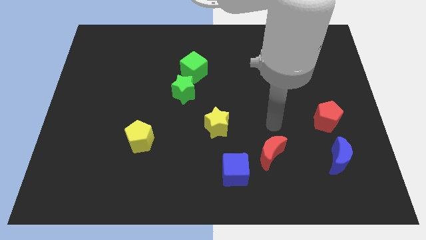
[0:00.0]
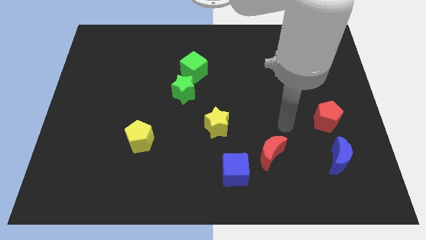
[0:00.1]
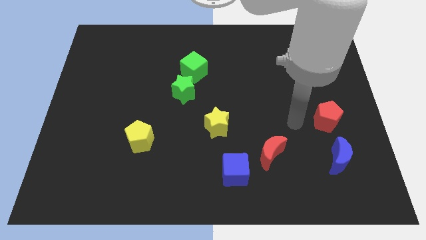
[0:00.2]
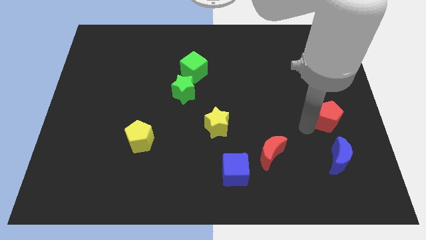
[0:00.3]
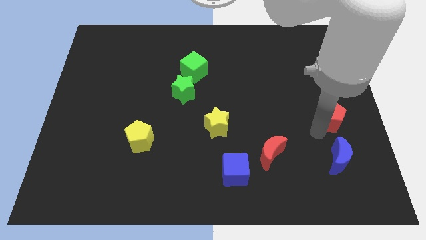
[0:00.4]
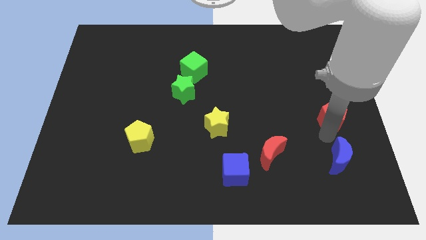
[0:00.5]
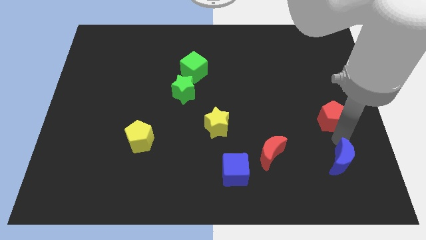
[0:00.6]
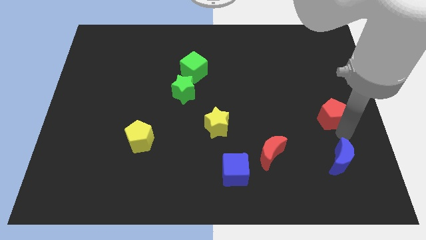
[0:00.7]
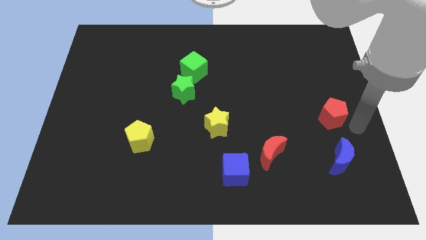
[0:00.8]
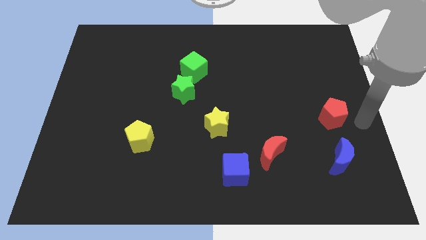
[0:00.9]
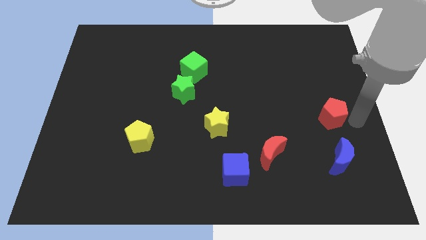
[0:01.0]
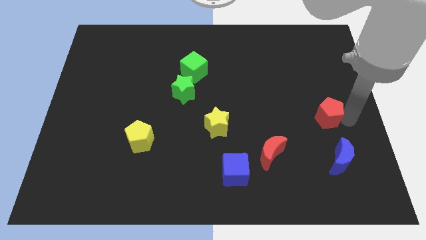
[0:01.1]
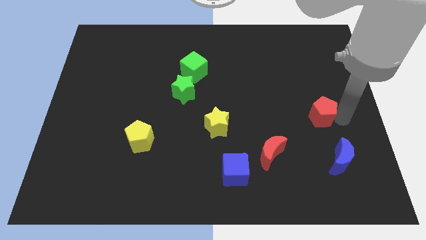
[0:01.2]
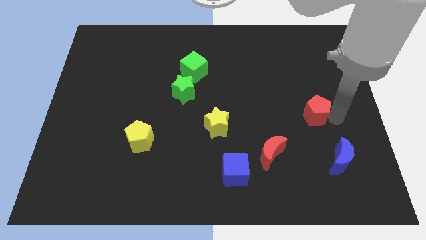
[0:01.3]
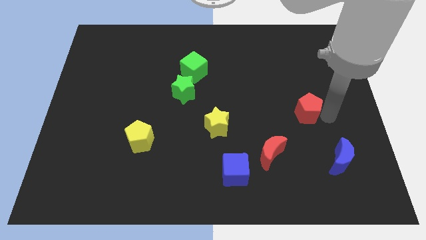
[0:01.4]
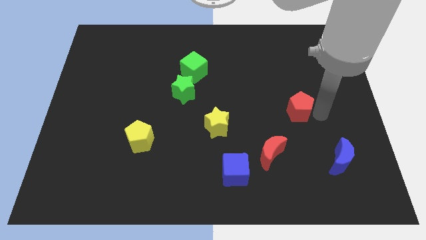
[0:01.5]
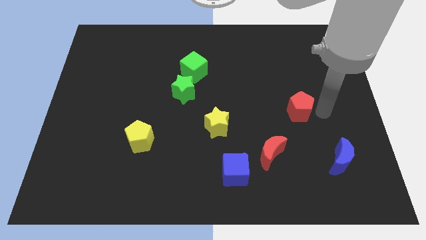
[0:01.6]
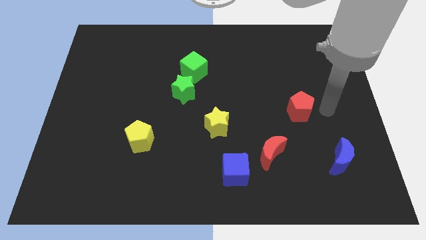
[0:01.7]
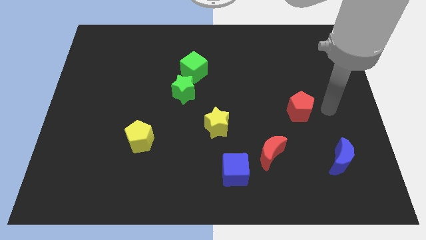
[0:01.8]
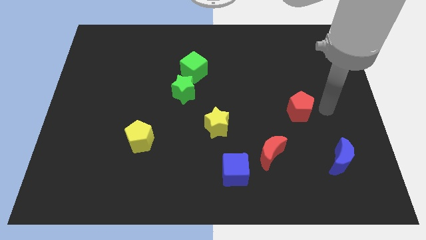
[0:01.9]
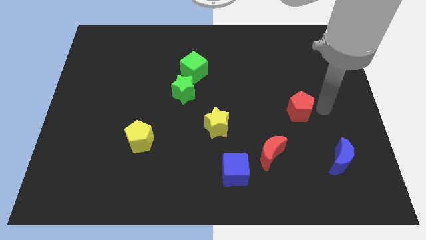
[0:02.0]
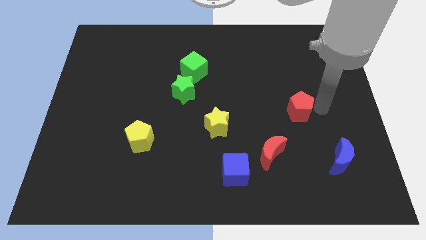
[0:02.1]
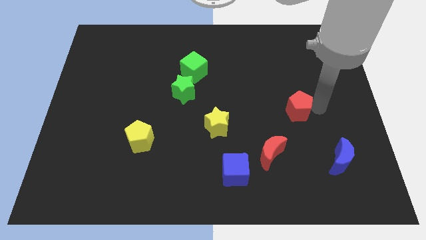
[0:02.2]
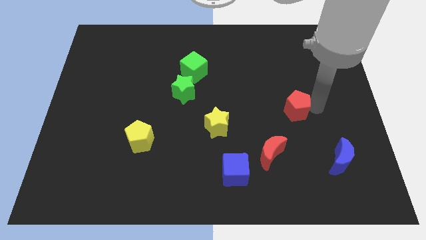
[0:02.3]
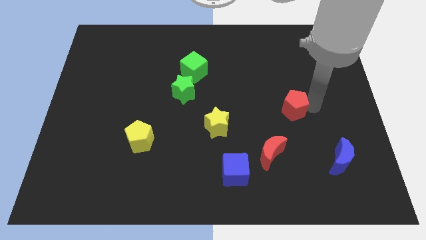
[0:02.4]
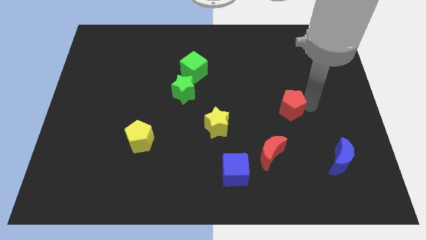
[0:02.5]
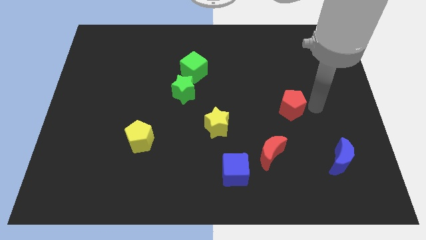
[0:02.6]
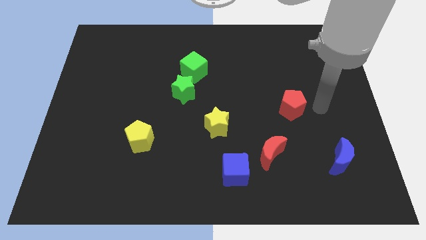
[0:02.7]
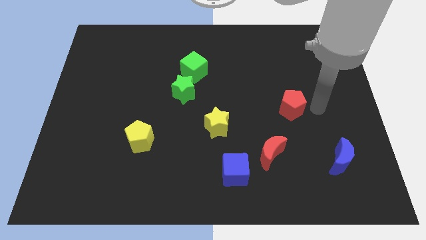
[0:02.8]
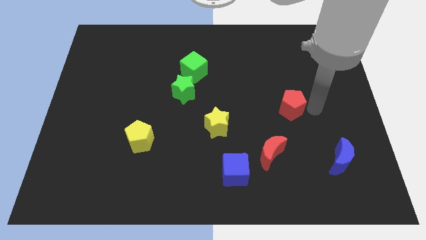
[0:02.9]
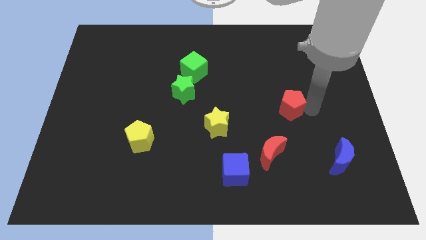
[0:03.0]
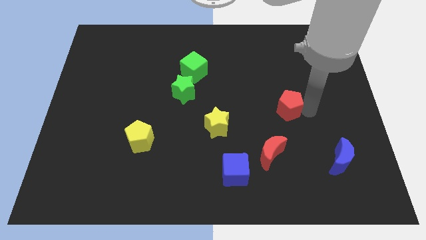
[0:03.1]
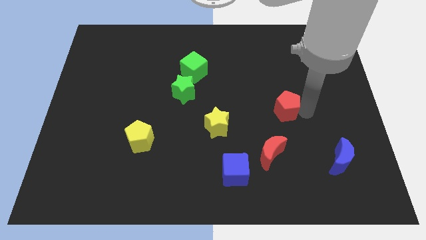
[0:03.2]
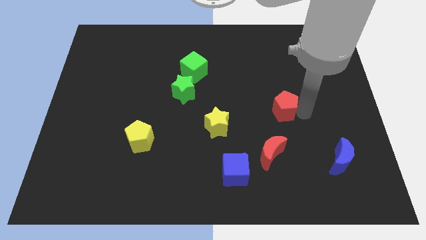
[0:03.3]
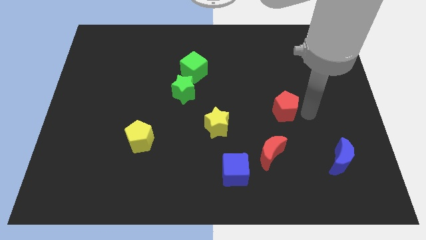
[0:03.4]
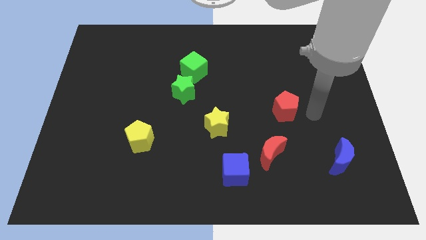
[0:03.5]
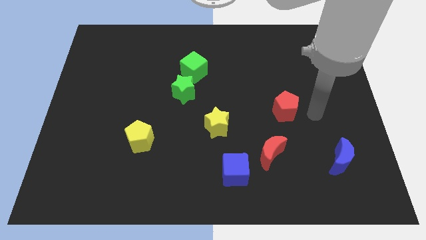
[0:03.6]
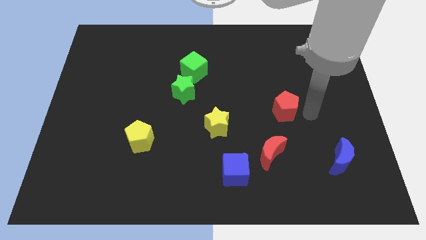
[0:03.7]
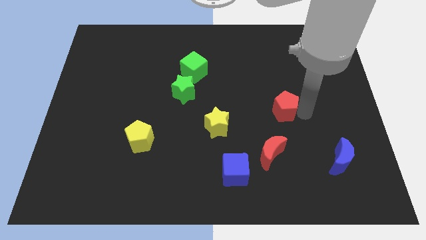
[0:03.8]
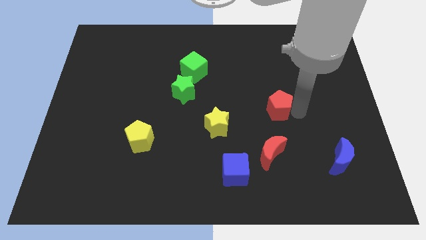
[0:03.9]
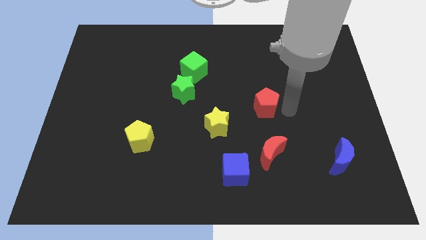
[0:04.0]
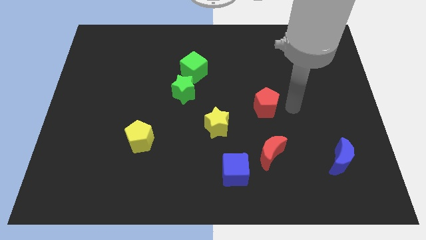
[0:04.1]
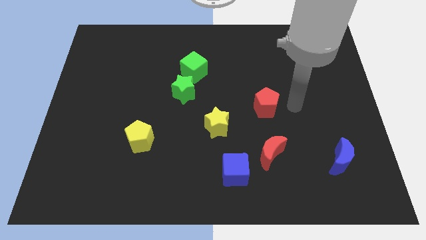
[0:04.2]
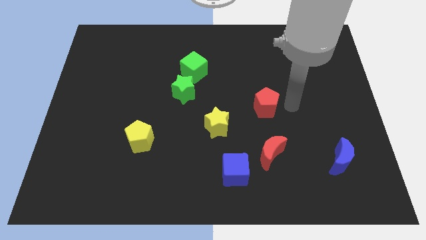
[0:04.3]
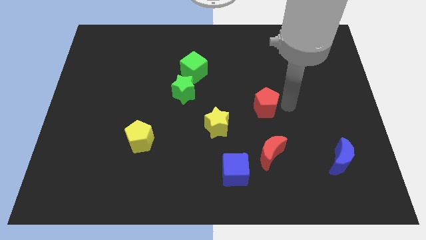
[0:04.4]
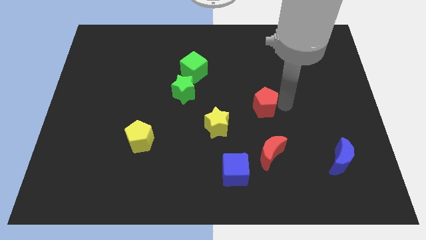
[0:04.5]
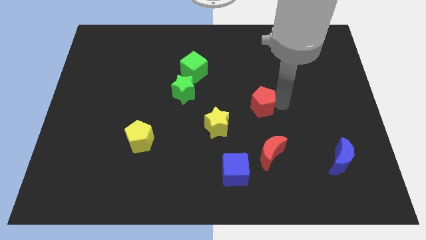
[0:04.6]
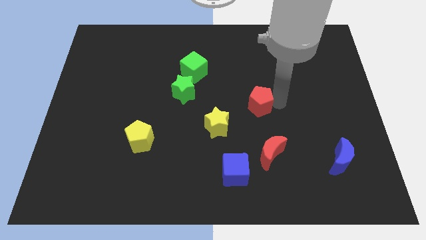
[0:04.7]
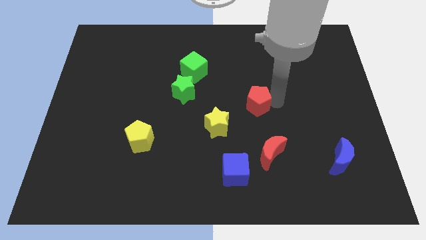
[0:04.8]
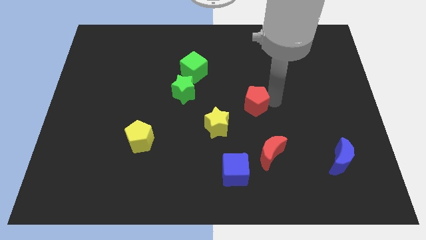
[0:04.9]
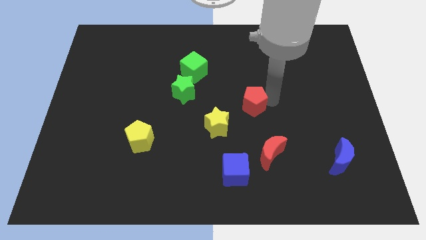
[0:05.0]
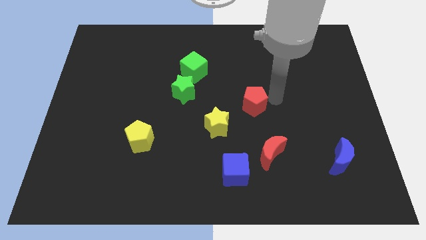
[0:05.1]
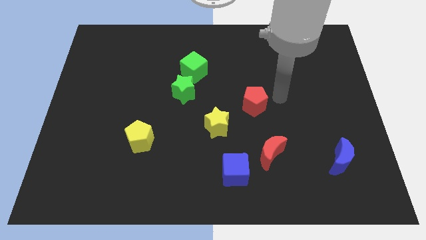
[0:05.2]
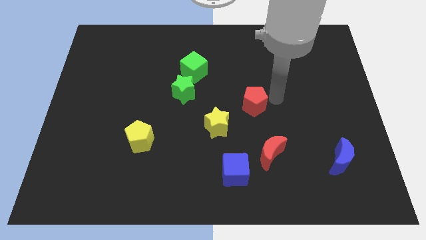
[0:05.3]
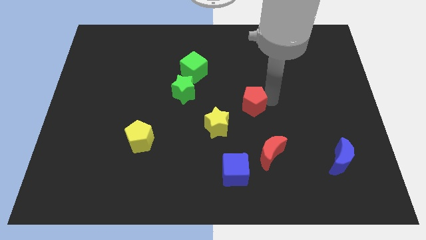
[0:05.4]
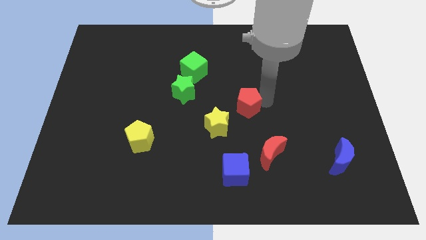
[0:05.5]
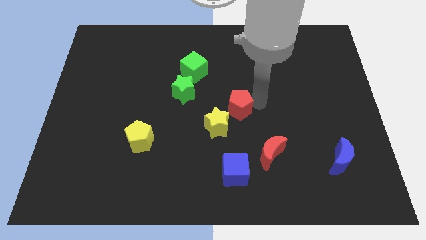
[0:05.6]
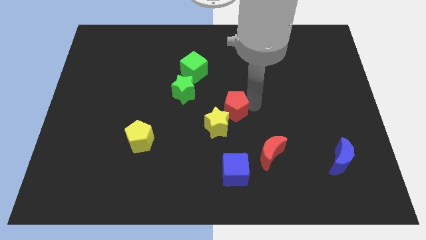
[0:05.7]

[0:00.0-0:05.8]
push the red pentagon to the left

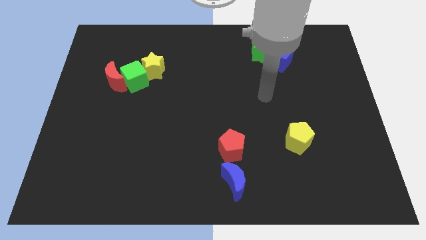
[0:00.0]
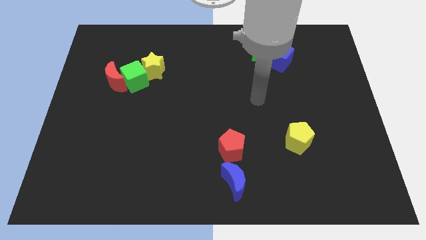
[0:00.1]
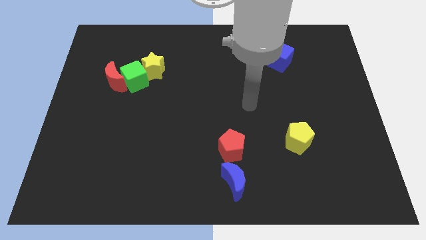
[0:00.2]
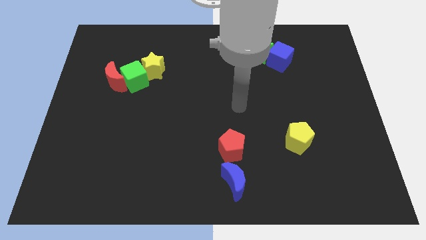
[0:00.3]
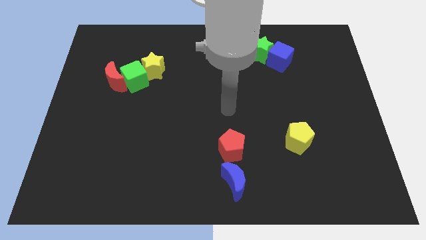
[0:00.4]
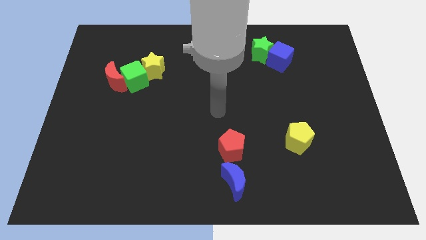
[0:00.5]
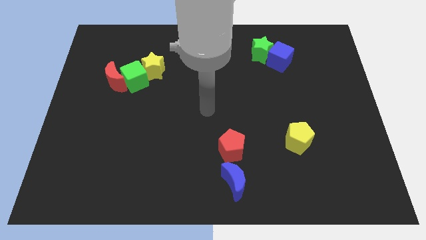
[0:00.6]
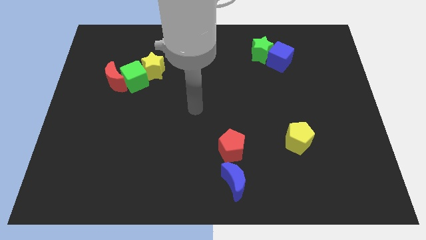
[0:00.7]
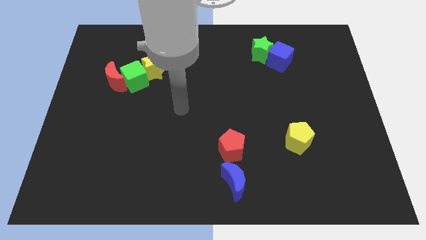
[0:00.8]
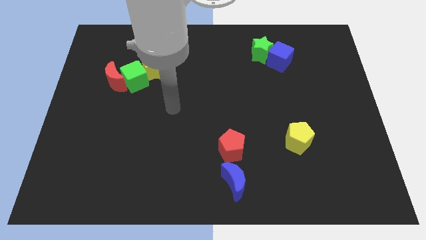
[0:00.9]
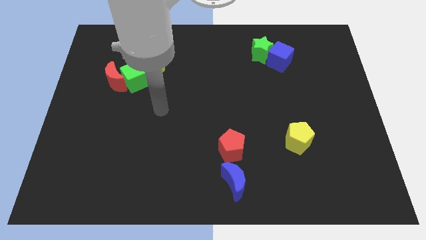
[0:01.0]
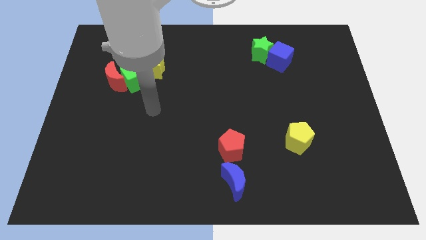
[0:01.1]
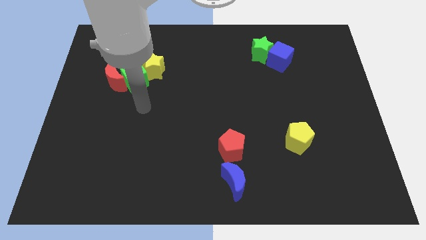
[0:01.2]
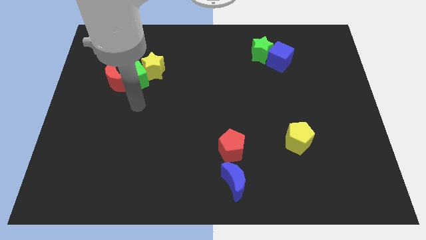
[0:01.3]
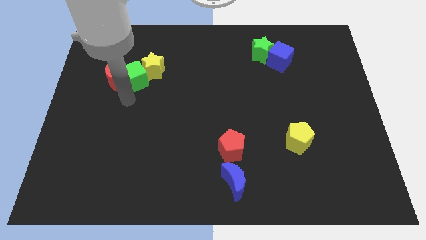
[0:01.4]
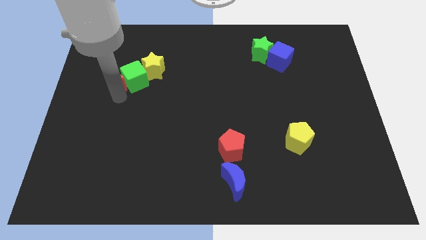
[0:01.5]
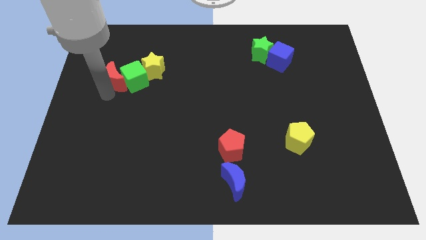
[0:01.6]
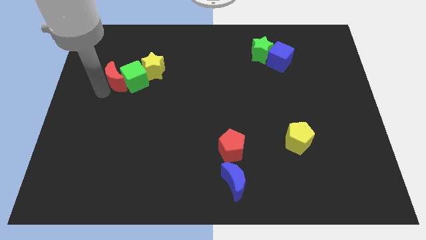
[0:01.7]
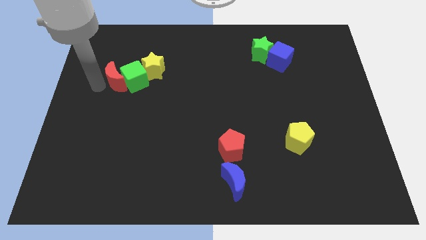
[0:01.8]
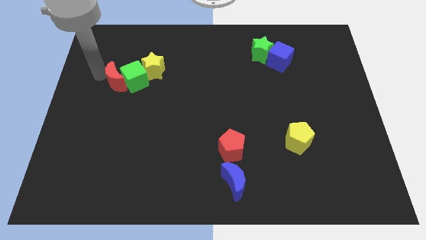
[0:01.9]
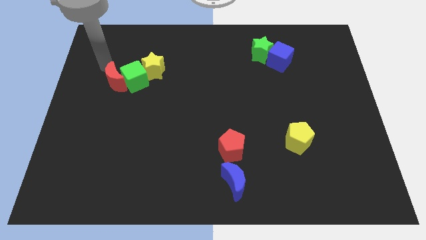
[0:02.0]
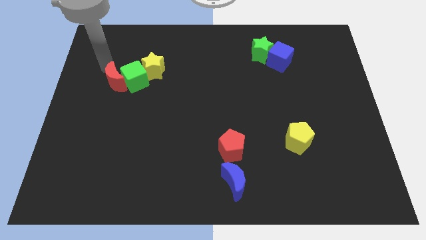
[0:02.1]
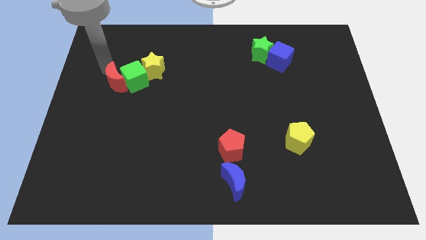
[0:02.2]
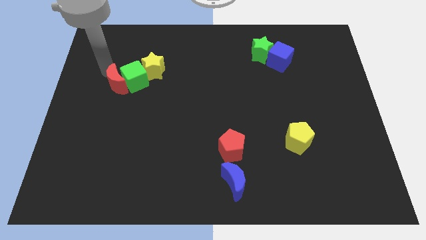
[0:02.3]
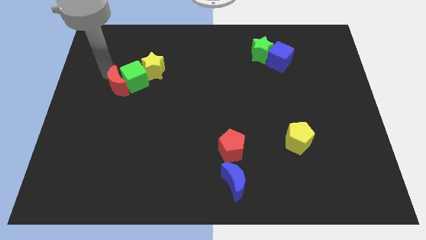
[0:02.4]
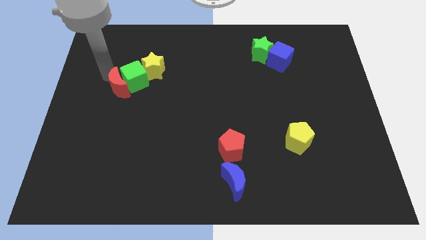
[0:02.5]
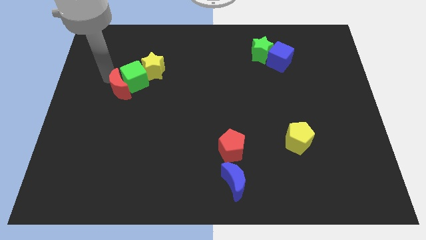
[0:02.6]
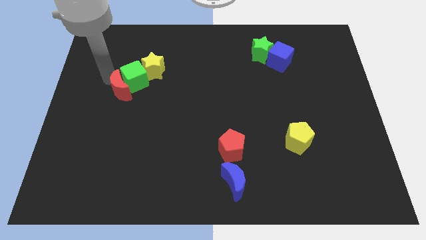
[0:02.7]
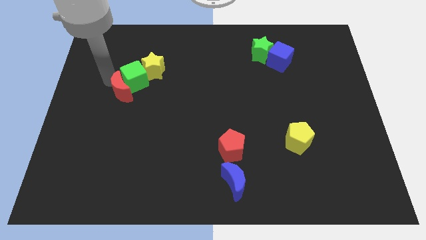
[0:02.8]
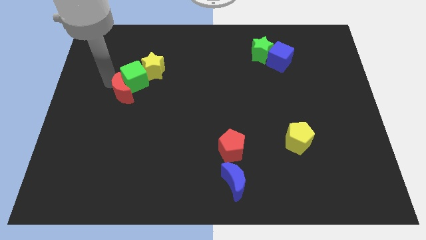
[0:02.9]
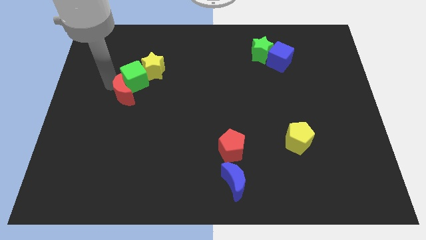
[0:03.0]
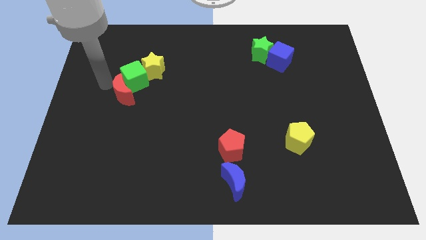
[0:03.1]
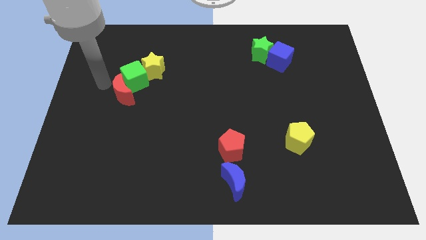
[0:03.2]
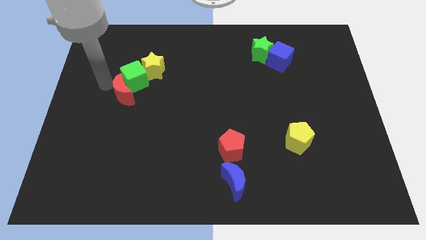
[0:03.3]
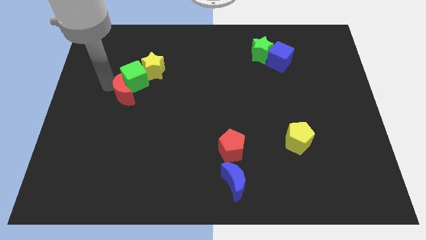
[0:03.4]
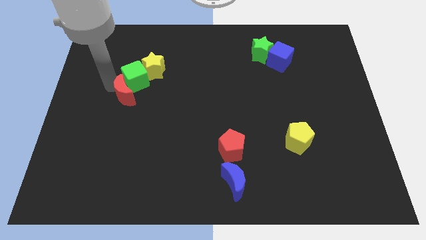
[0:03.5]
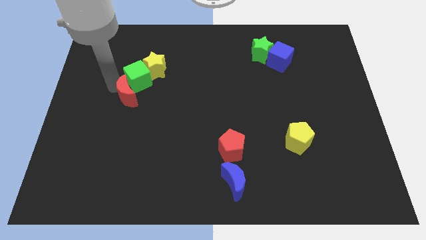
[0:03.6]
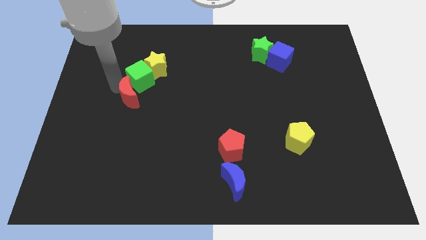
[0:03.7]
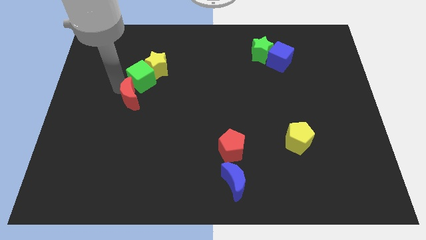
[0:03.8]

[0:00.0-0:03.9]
move the red moon a little downwards and right
